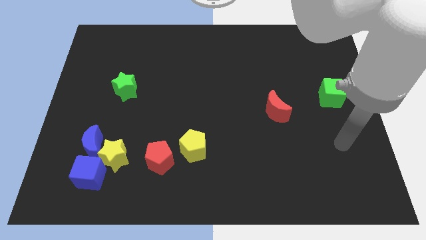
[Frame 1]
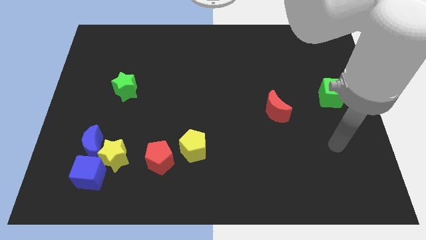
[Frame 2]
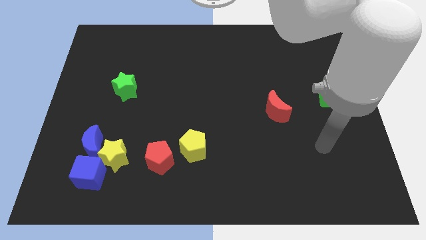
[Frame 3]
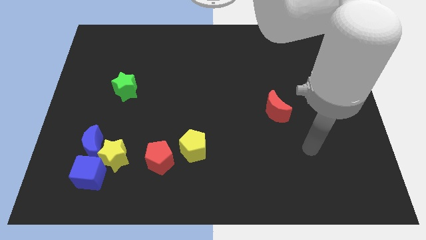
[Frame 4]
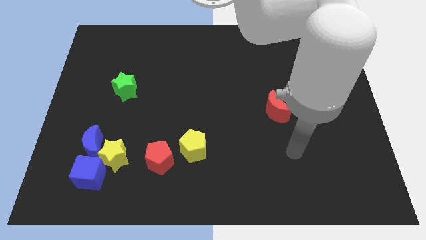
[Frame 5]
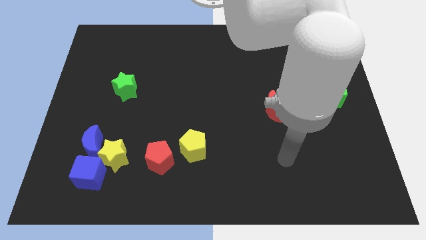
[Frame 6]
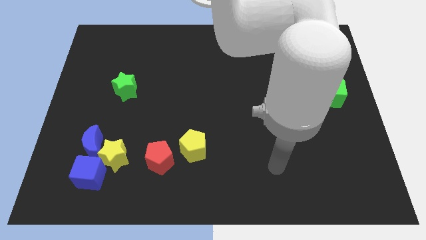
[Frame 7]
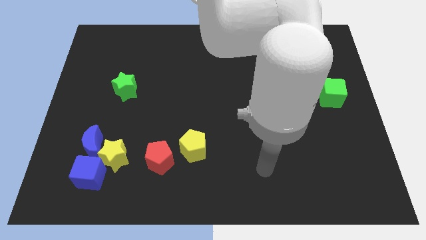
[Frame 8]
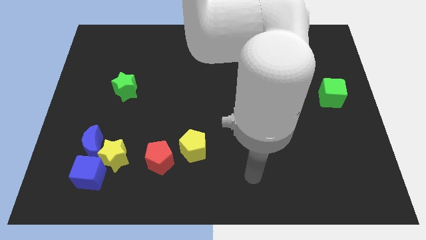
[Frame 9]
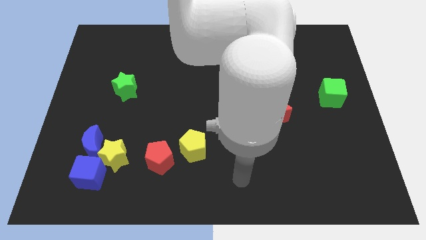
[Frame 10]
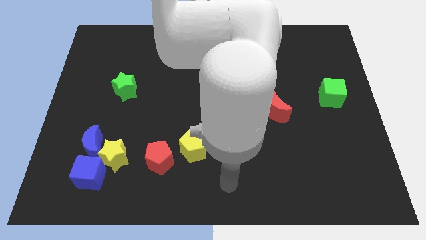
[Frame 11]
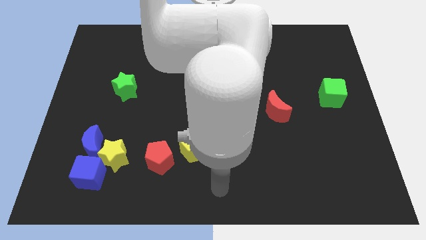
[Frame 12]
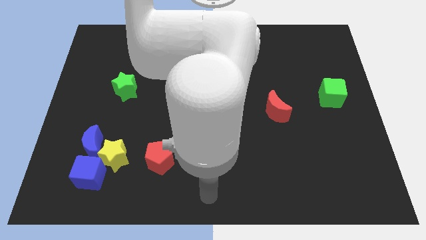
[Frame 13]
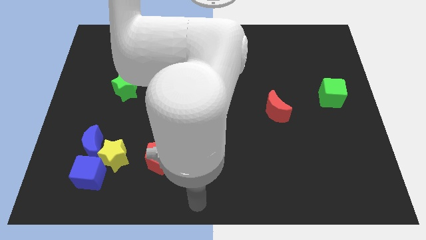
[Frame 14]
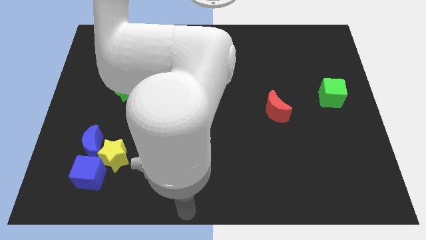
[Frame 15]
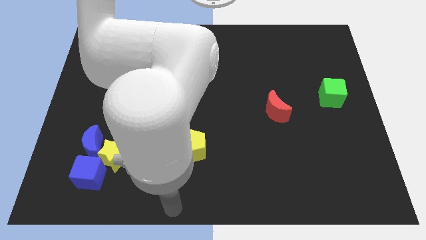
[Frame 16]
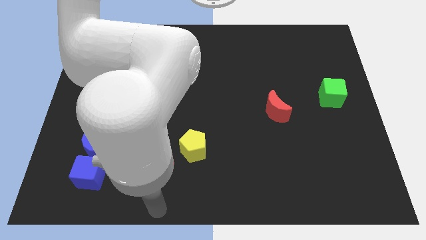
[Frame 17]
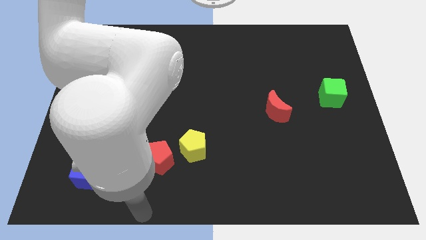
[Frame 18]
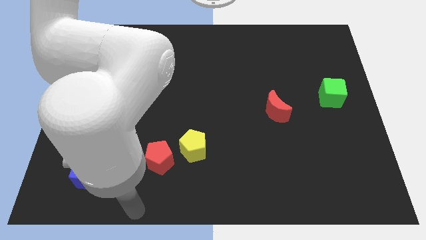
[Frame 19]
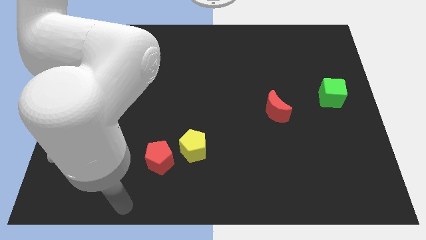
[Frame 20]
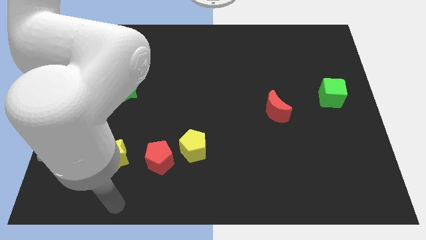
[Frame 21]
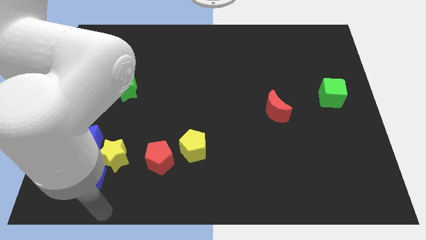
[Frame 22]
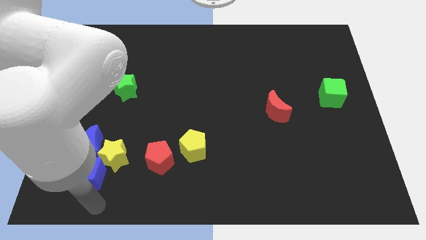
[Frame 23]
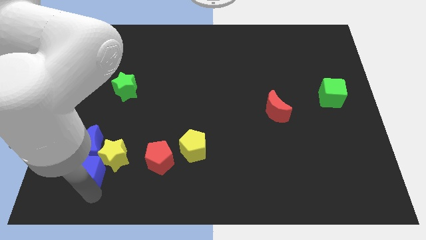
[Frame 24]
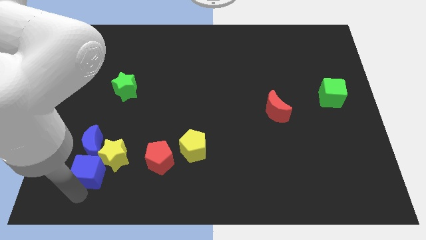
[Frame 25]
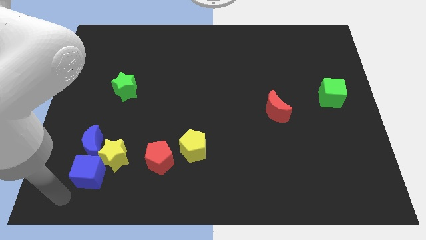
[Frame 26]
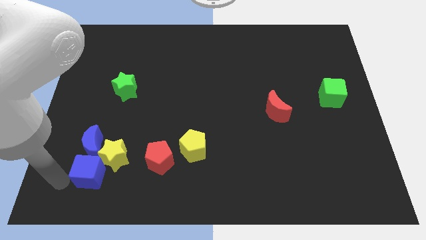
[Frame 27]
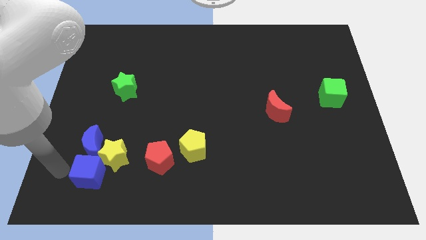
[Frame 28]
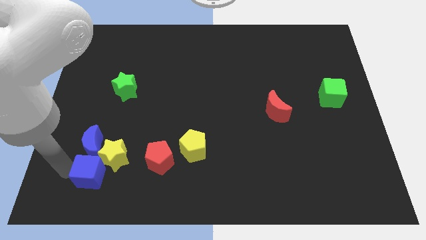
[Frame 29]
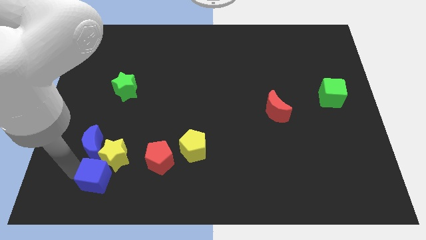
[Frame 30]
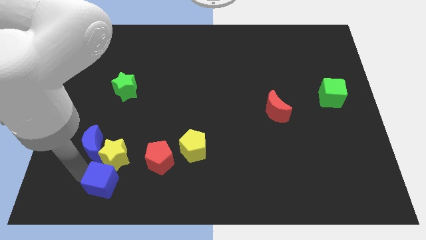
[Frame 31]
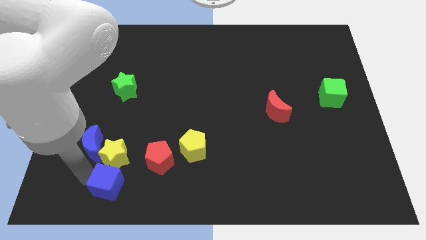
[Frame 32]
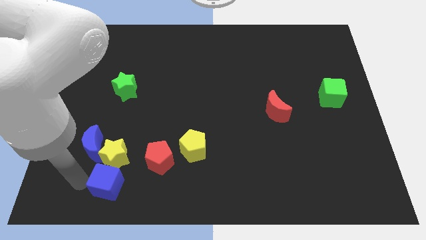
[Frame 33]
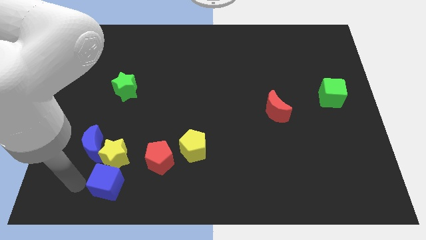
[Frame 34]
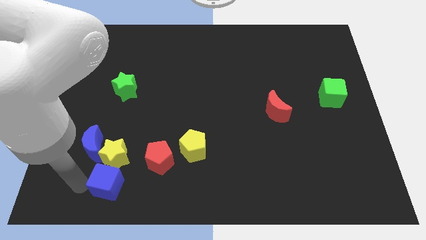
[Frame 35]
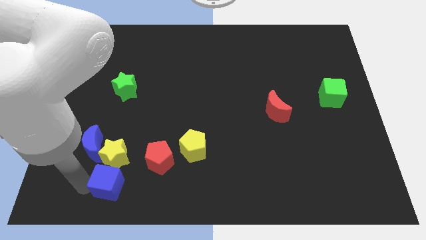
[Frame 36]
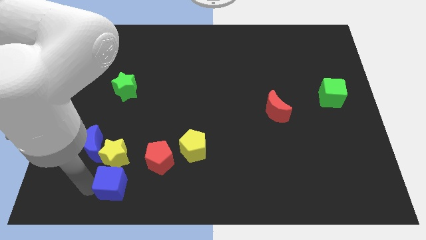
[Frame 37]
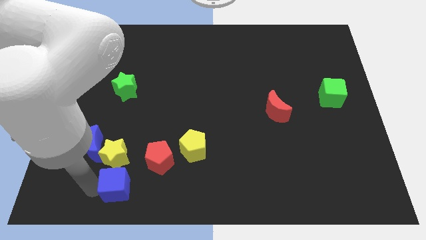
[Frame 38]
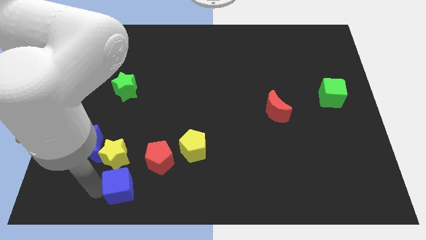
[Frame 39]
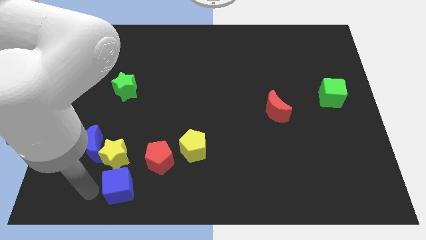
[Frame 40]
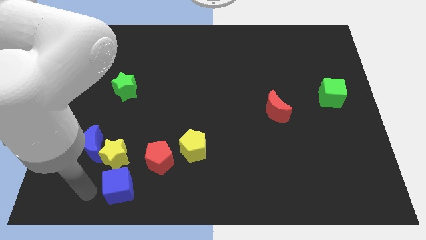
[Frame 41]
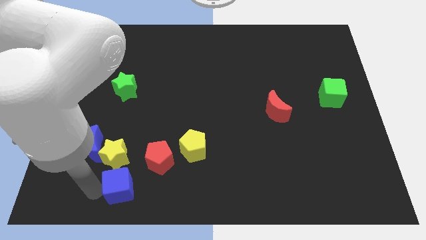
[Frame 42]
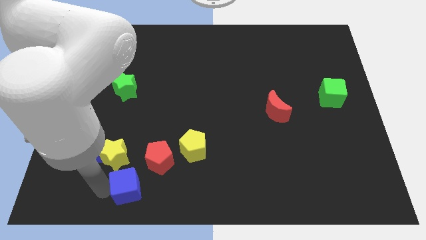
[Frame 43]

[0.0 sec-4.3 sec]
slightly move the blue cube right

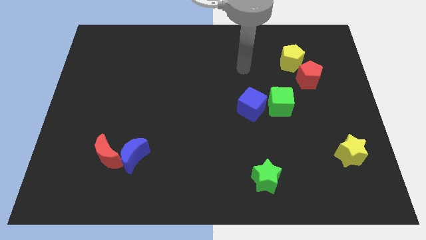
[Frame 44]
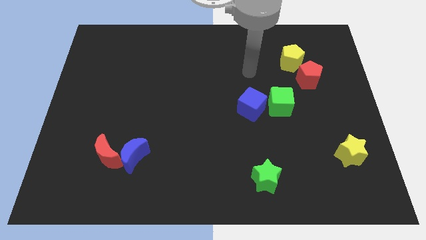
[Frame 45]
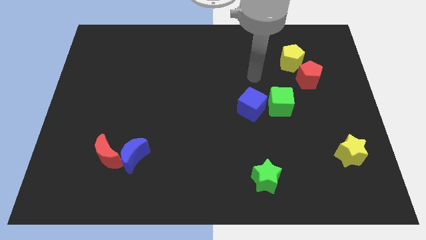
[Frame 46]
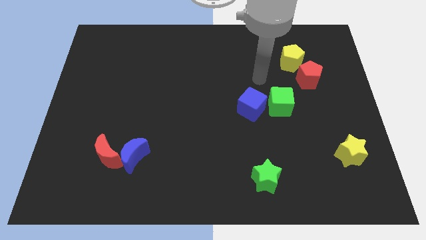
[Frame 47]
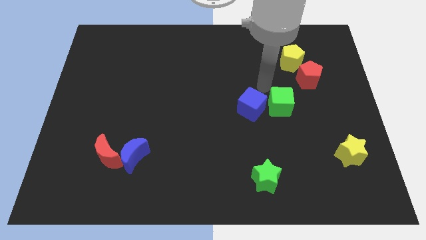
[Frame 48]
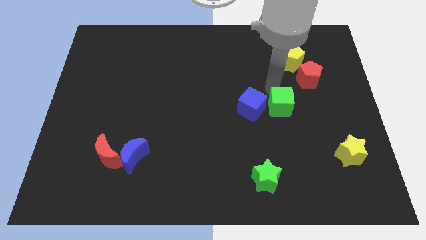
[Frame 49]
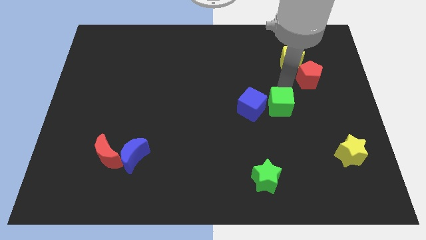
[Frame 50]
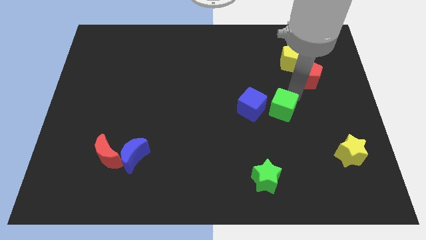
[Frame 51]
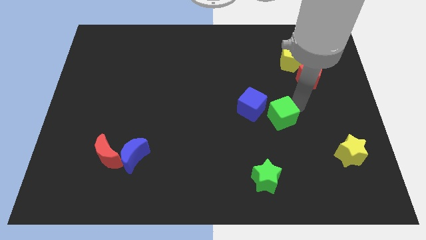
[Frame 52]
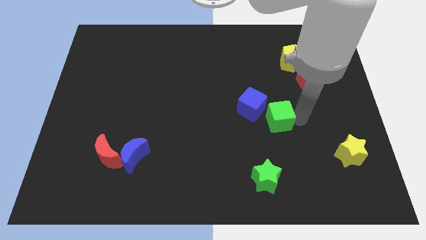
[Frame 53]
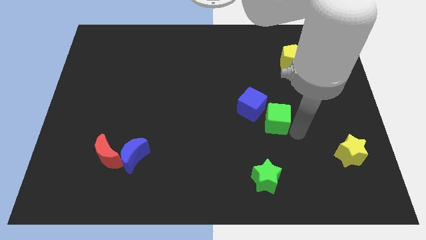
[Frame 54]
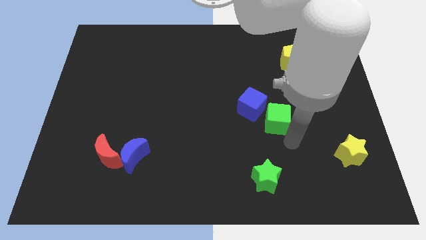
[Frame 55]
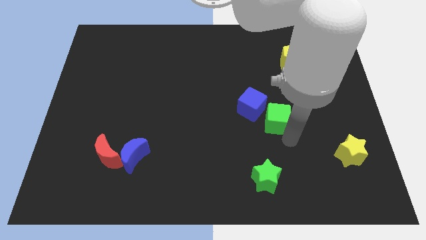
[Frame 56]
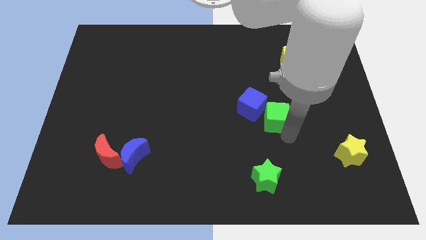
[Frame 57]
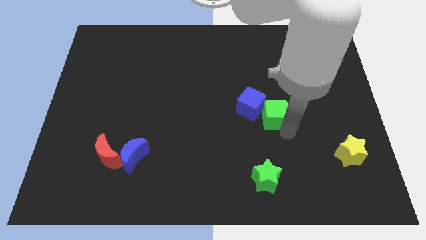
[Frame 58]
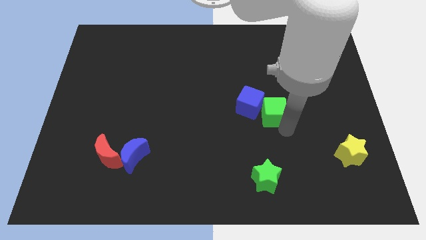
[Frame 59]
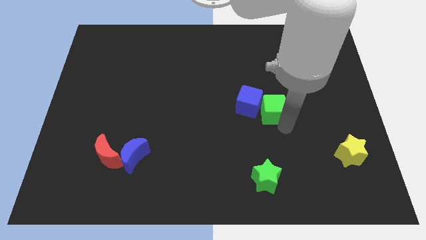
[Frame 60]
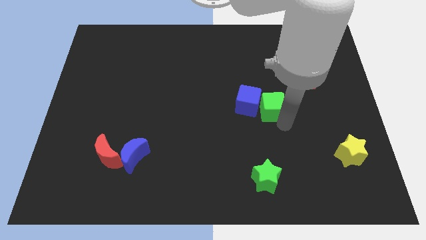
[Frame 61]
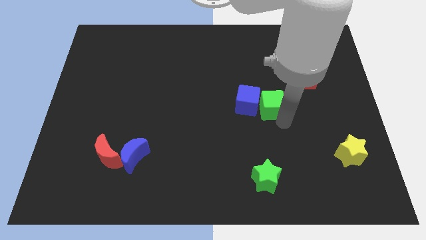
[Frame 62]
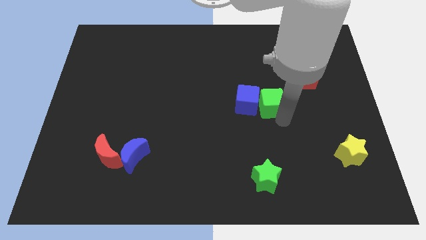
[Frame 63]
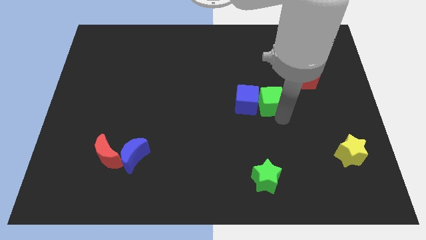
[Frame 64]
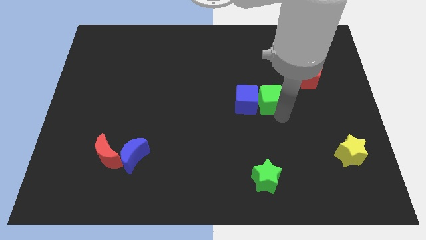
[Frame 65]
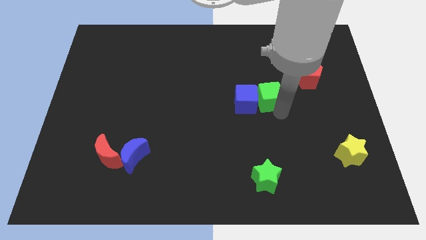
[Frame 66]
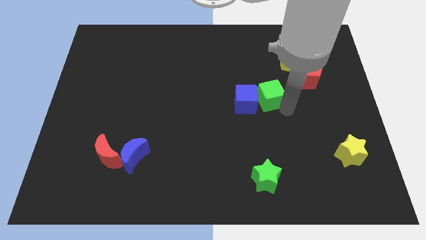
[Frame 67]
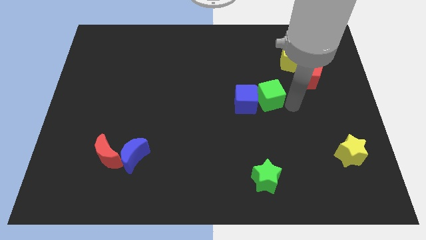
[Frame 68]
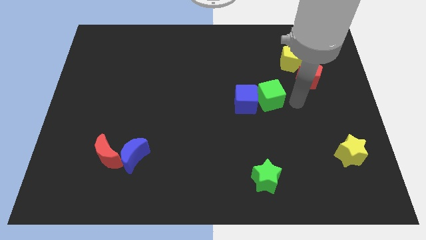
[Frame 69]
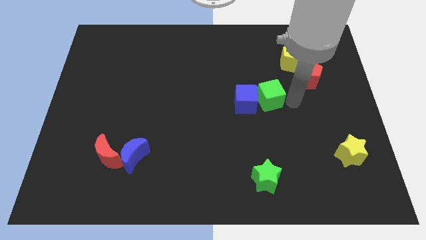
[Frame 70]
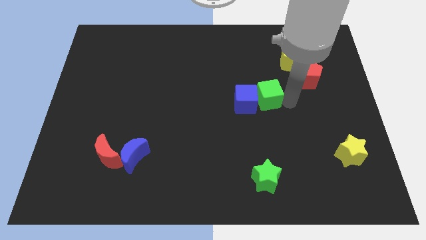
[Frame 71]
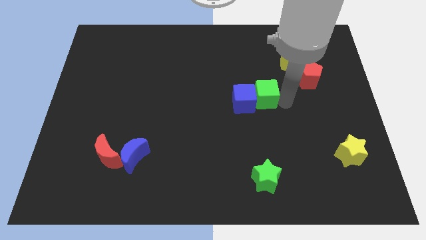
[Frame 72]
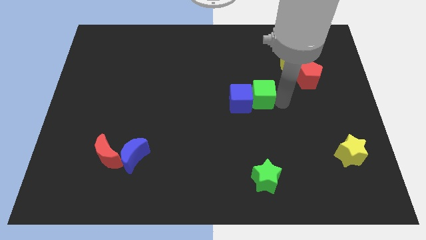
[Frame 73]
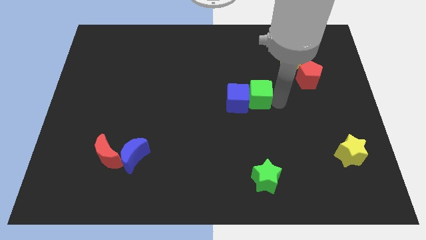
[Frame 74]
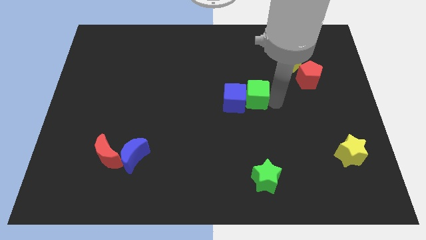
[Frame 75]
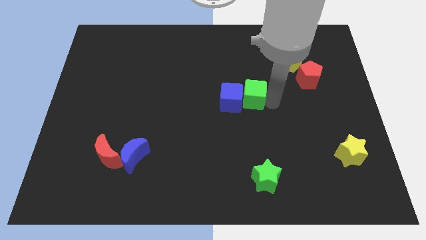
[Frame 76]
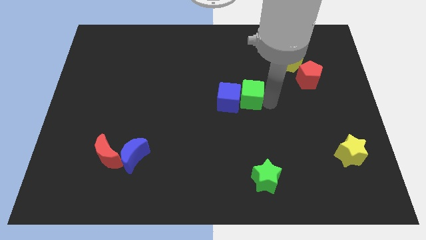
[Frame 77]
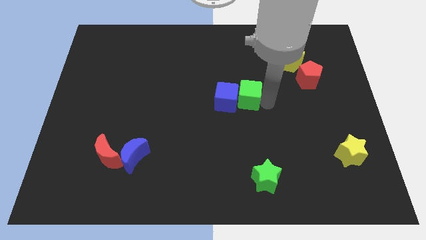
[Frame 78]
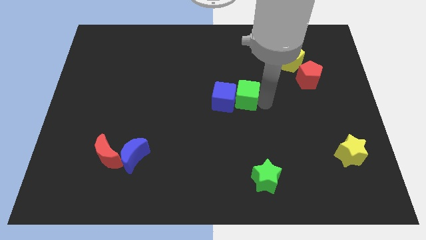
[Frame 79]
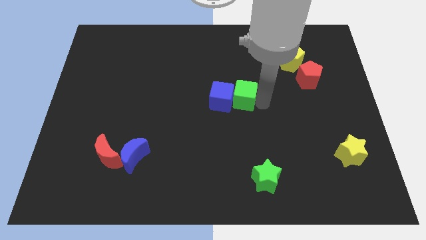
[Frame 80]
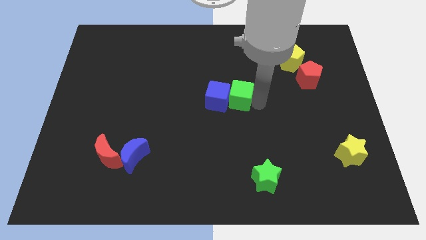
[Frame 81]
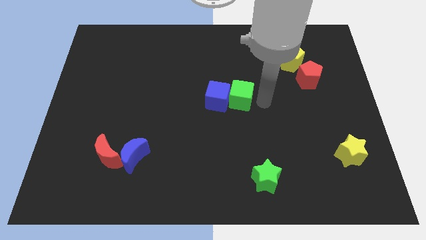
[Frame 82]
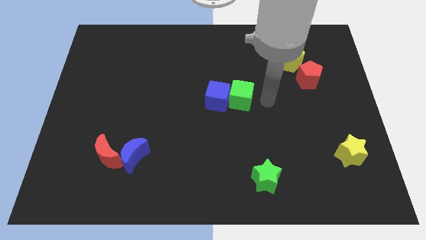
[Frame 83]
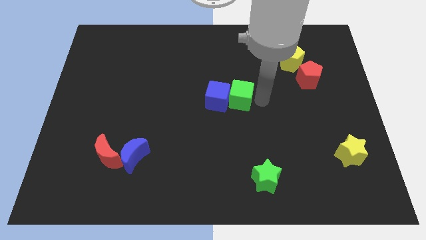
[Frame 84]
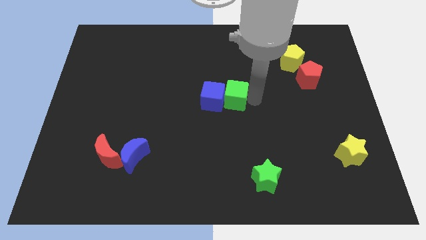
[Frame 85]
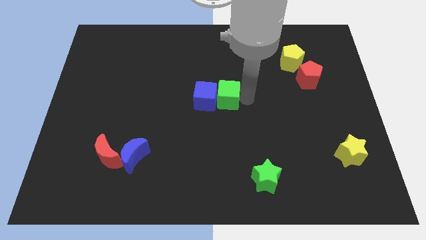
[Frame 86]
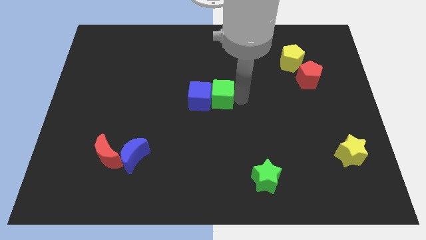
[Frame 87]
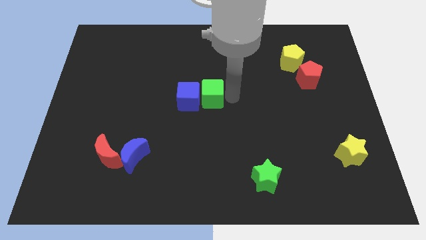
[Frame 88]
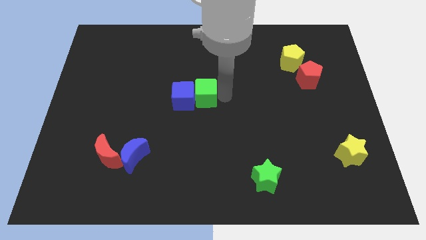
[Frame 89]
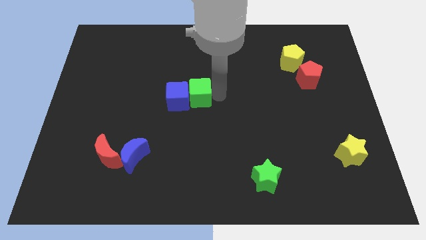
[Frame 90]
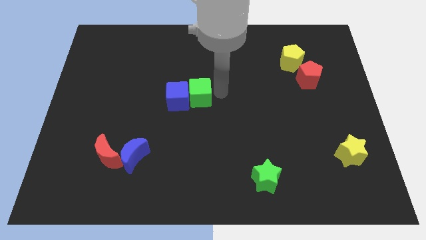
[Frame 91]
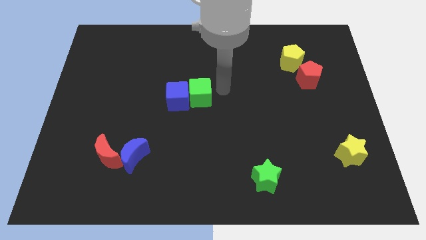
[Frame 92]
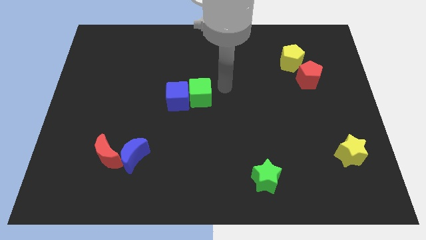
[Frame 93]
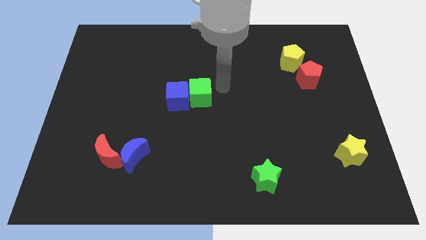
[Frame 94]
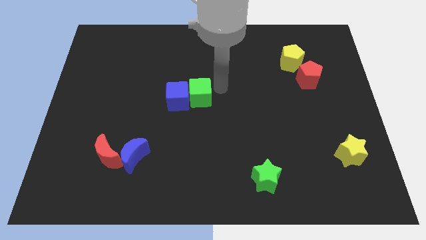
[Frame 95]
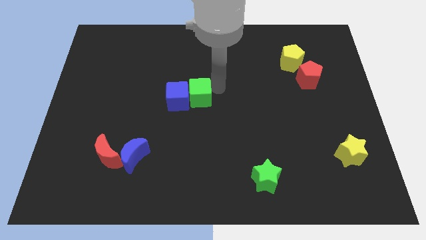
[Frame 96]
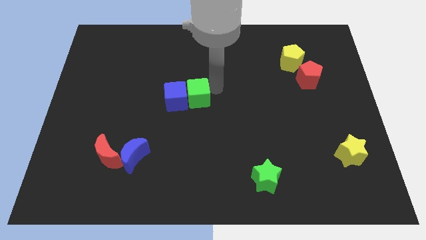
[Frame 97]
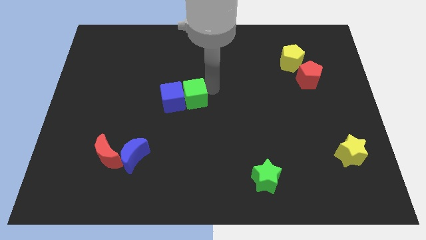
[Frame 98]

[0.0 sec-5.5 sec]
push the green cube left
